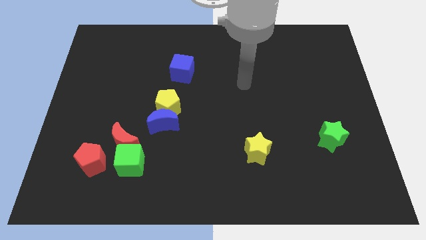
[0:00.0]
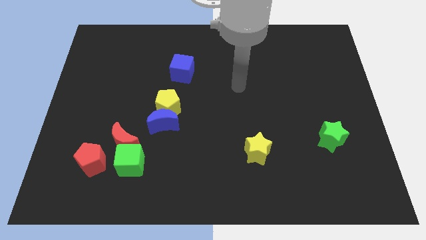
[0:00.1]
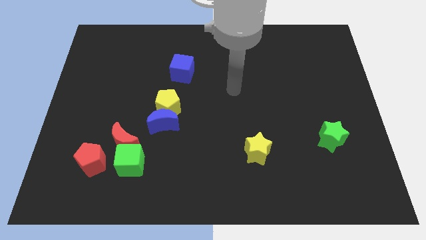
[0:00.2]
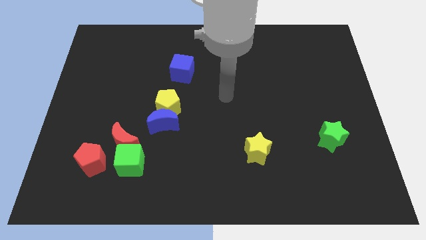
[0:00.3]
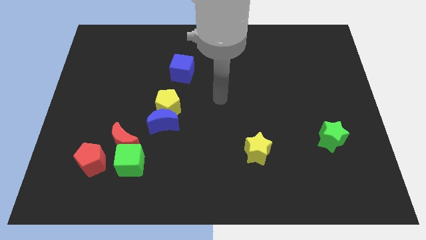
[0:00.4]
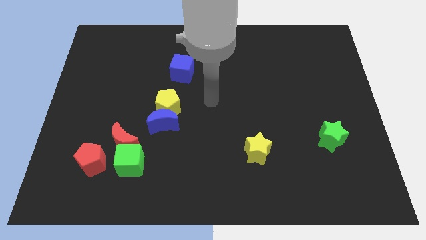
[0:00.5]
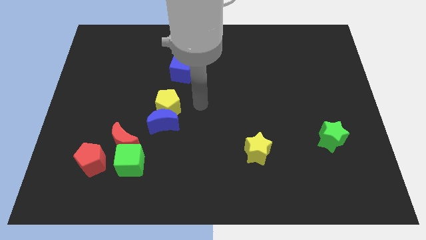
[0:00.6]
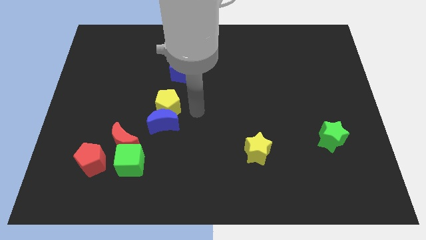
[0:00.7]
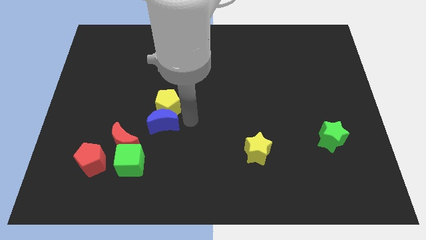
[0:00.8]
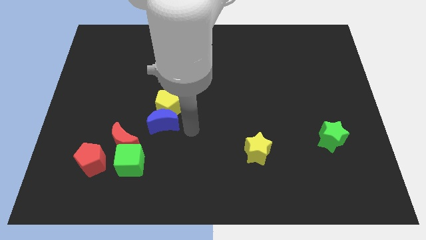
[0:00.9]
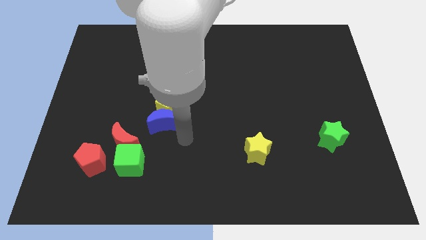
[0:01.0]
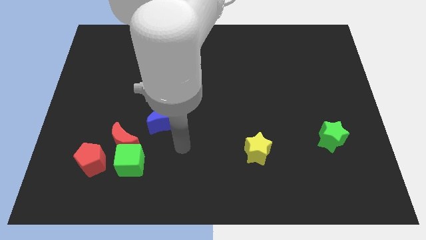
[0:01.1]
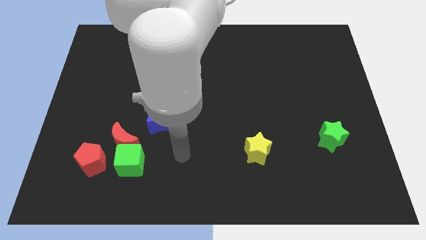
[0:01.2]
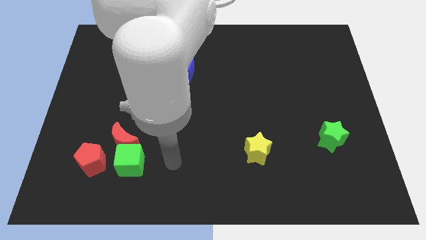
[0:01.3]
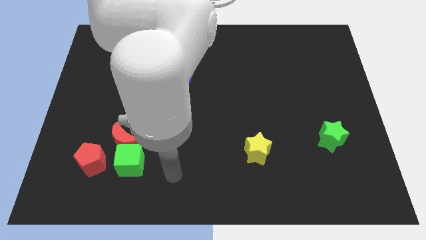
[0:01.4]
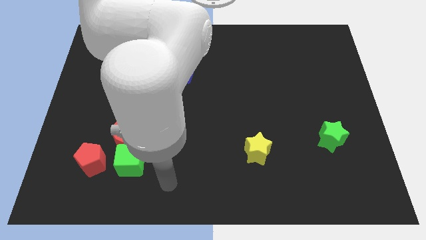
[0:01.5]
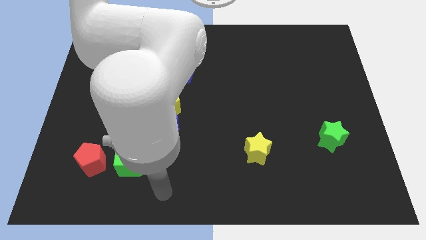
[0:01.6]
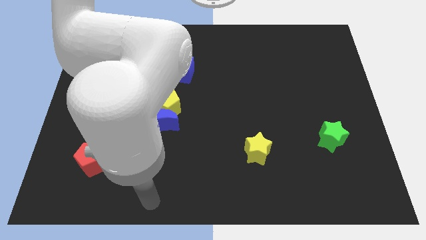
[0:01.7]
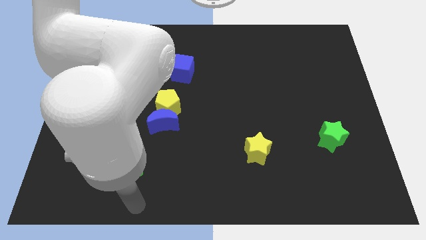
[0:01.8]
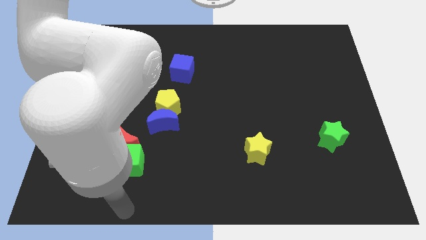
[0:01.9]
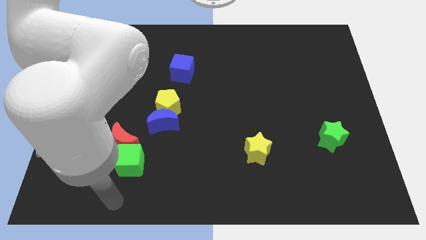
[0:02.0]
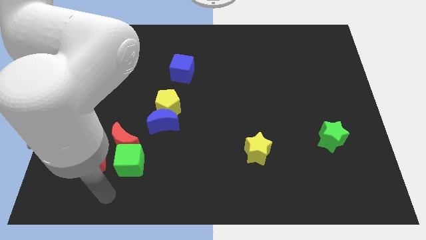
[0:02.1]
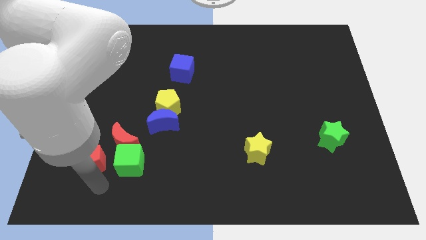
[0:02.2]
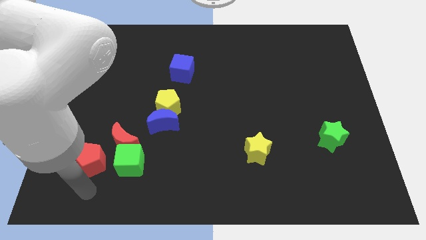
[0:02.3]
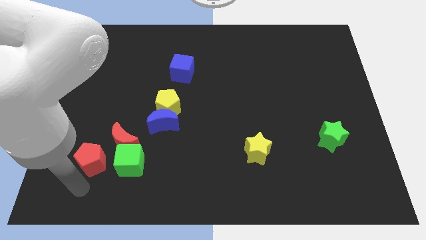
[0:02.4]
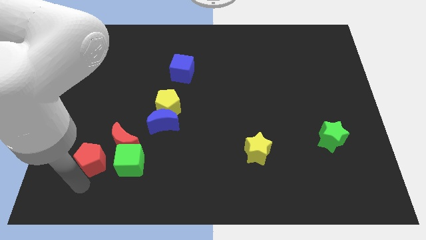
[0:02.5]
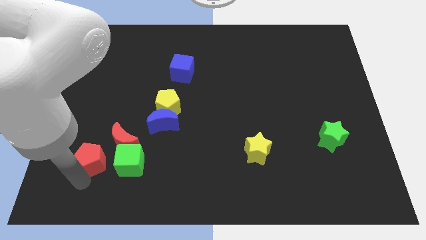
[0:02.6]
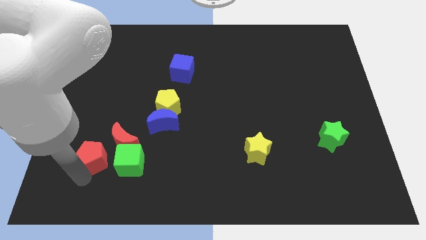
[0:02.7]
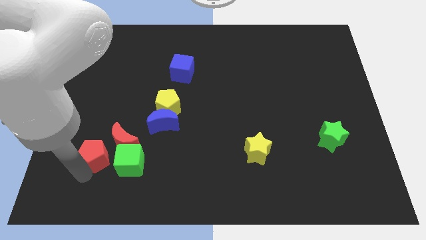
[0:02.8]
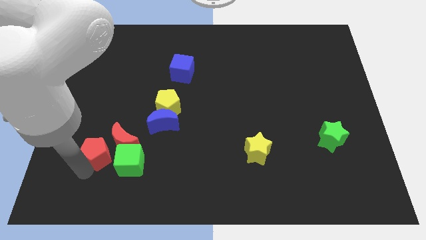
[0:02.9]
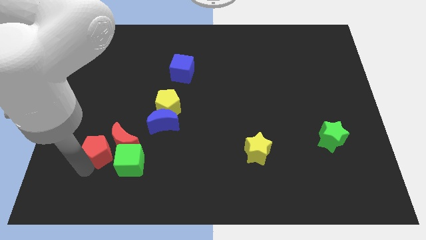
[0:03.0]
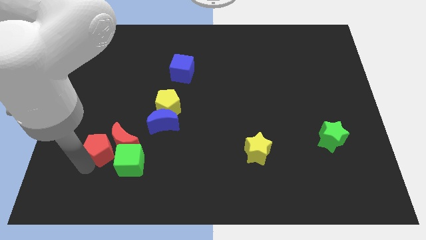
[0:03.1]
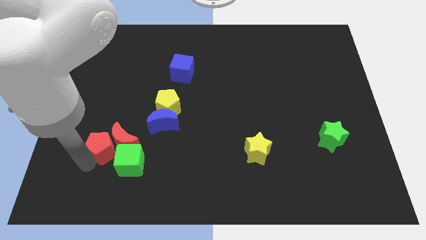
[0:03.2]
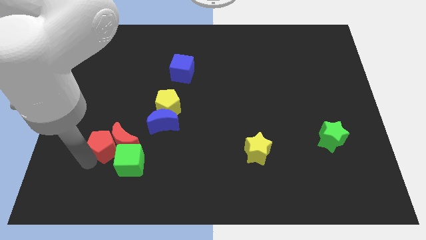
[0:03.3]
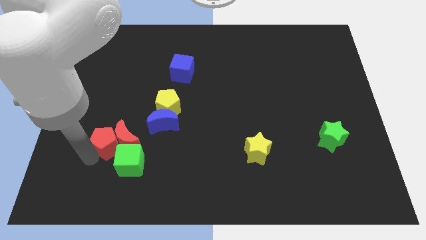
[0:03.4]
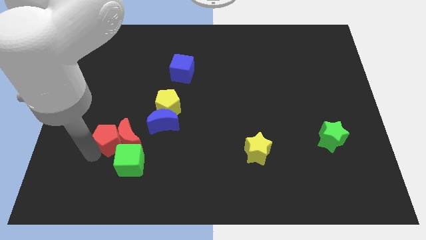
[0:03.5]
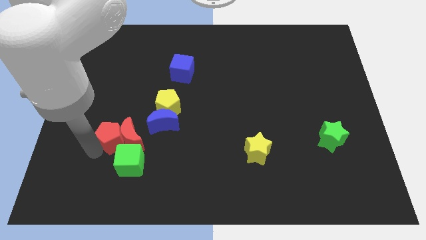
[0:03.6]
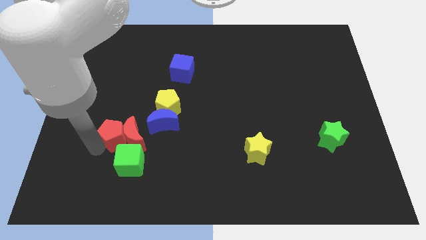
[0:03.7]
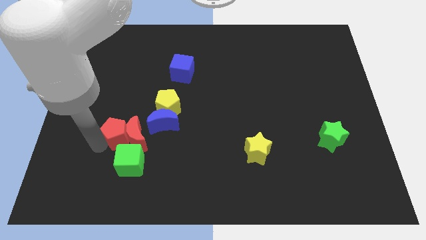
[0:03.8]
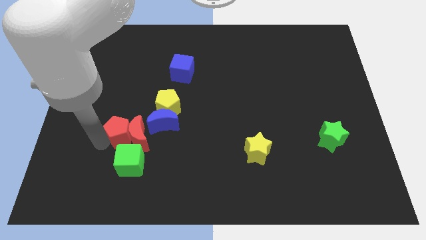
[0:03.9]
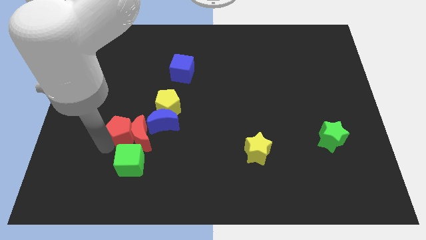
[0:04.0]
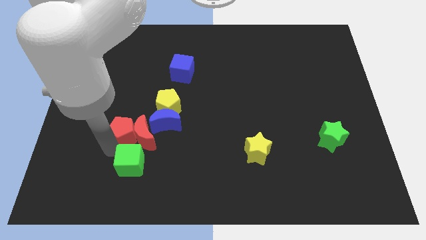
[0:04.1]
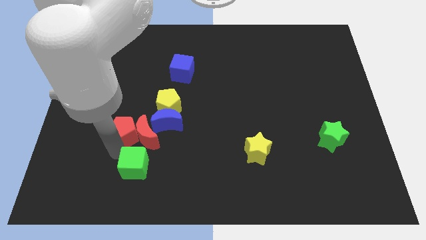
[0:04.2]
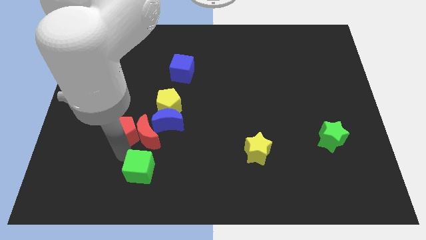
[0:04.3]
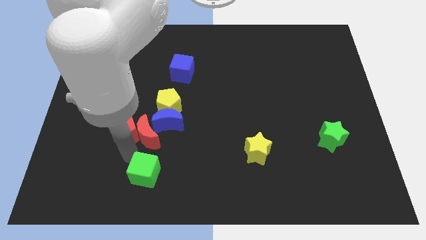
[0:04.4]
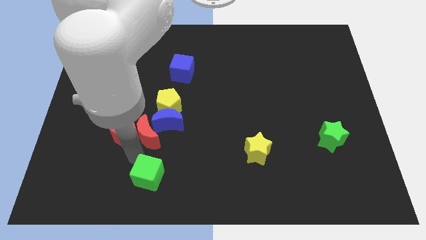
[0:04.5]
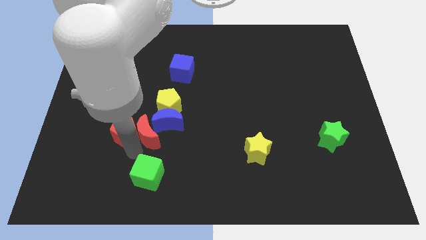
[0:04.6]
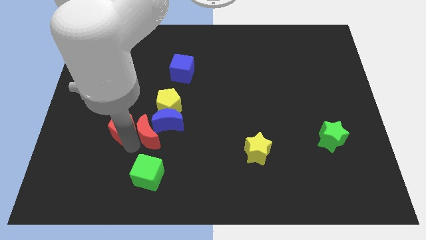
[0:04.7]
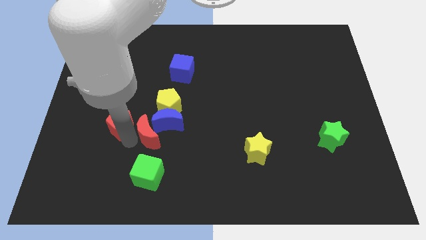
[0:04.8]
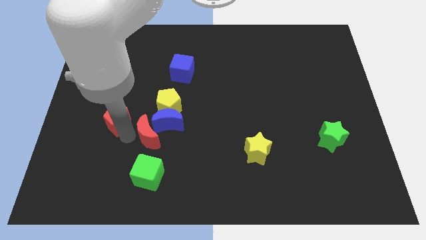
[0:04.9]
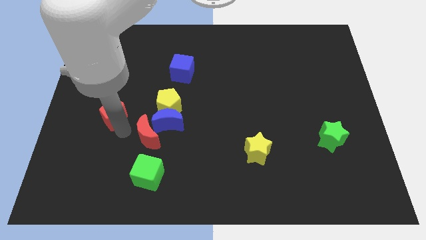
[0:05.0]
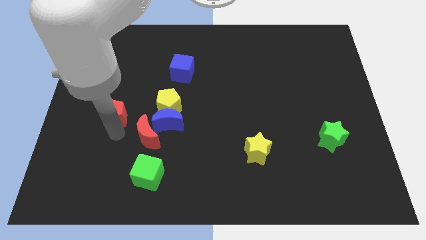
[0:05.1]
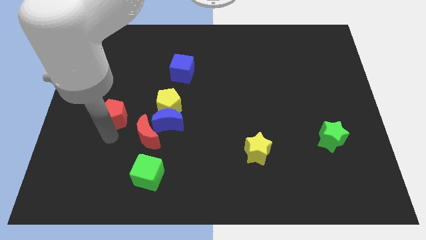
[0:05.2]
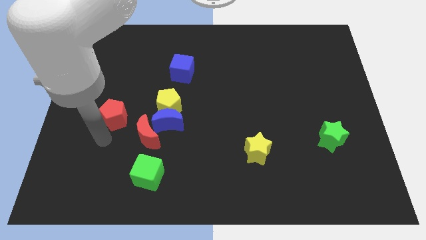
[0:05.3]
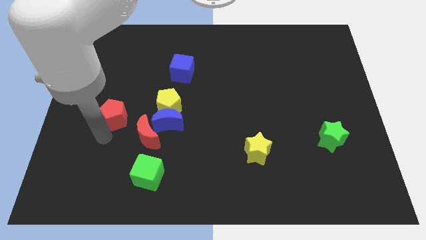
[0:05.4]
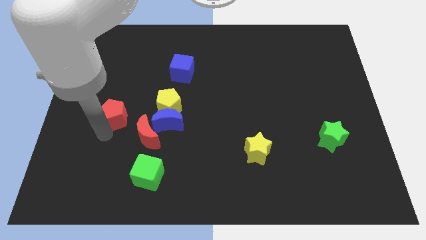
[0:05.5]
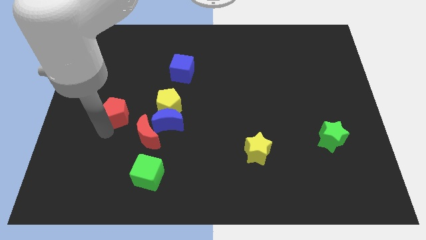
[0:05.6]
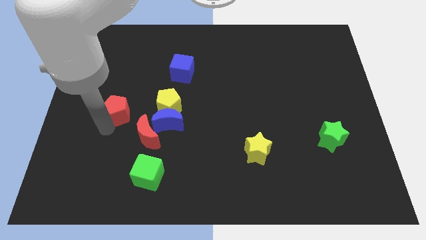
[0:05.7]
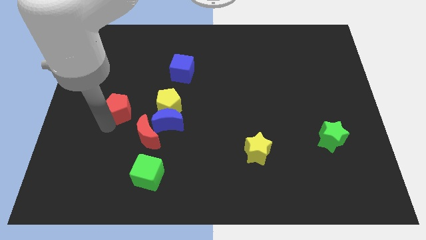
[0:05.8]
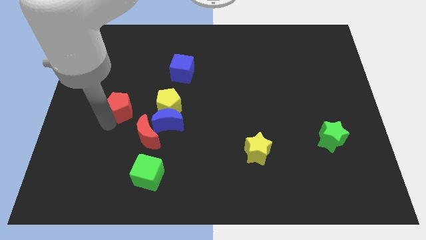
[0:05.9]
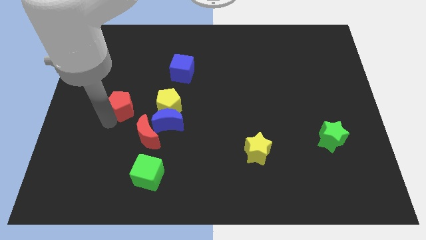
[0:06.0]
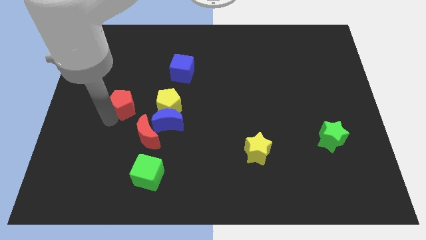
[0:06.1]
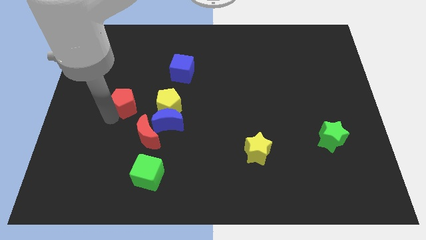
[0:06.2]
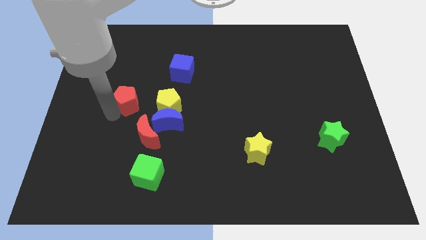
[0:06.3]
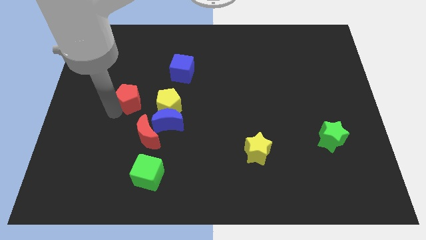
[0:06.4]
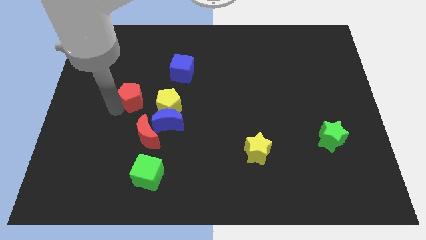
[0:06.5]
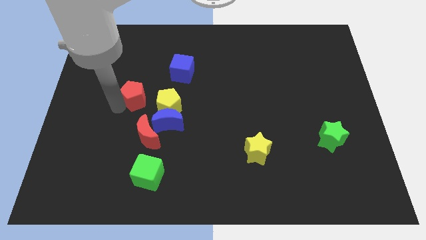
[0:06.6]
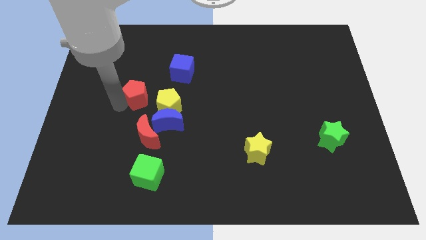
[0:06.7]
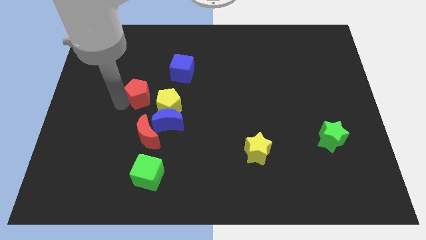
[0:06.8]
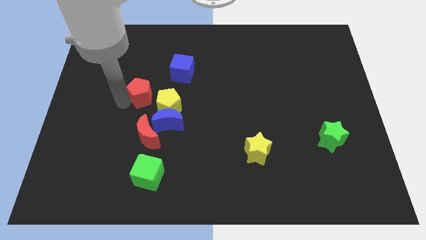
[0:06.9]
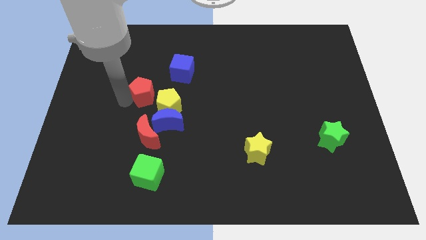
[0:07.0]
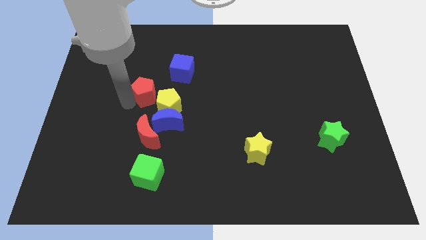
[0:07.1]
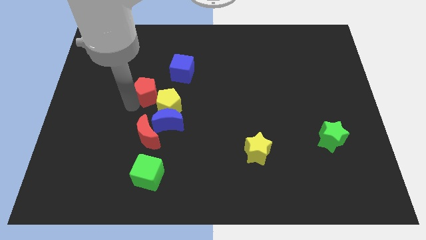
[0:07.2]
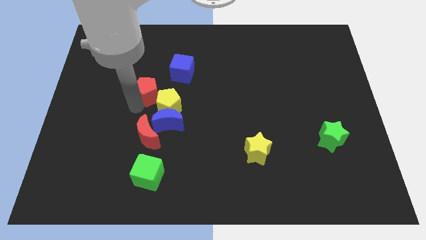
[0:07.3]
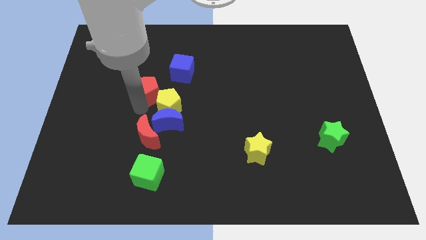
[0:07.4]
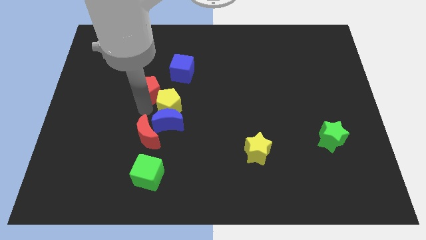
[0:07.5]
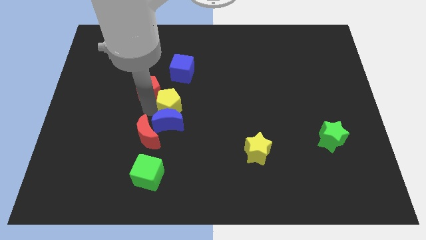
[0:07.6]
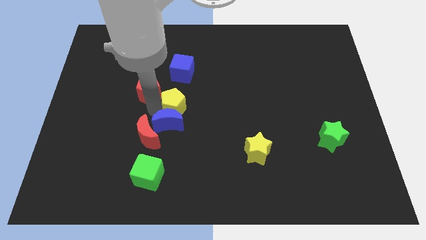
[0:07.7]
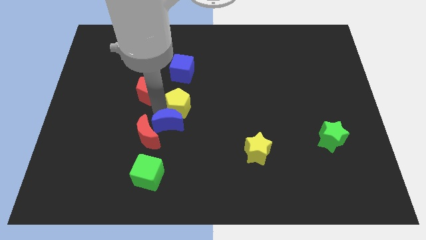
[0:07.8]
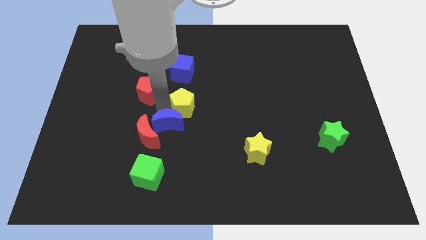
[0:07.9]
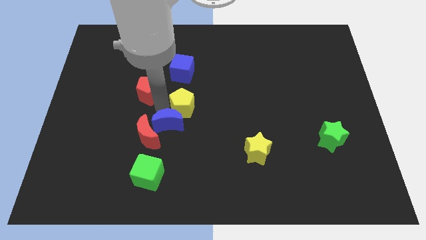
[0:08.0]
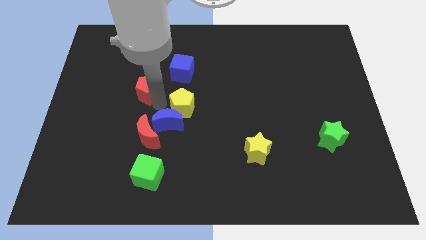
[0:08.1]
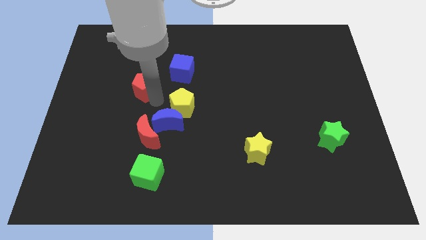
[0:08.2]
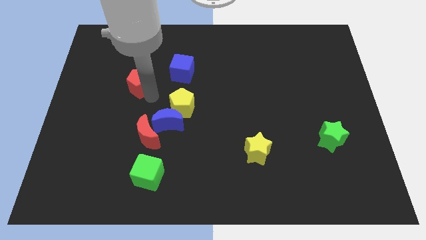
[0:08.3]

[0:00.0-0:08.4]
slide the red pentagon left of the blue cube
